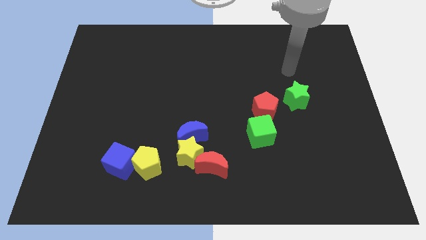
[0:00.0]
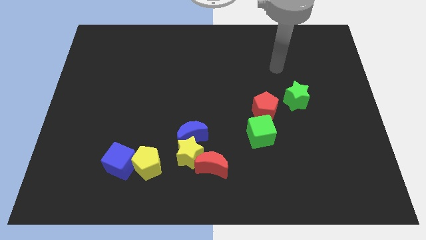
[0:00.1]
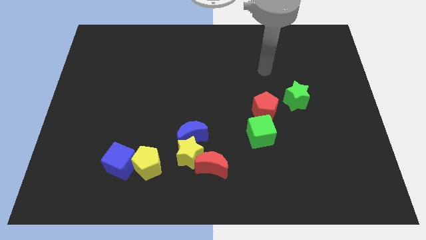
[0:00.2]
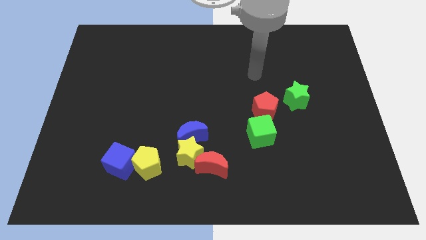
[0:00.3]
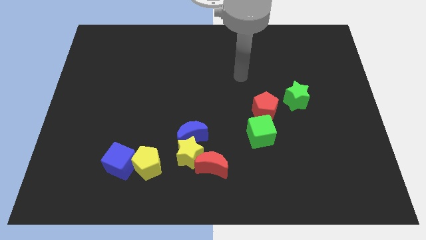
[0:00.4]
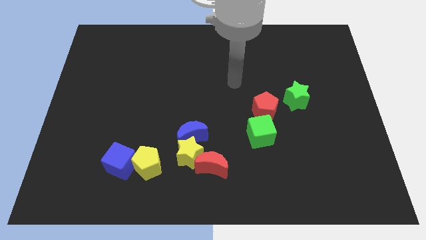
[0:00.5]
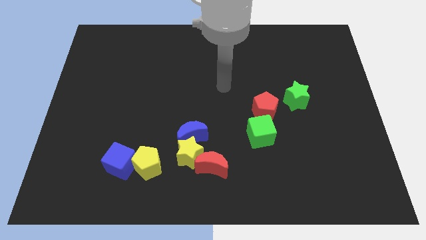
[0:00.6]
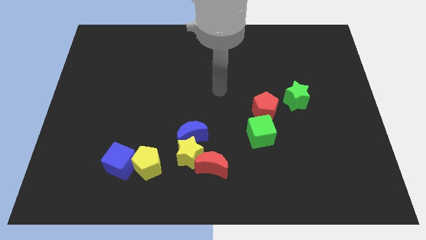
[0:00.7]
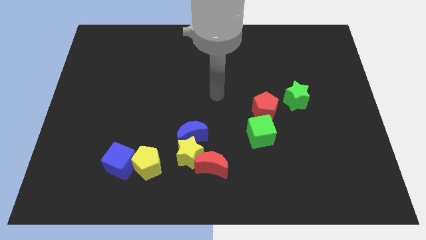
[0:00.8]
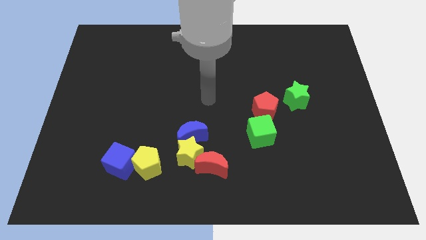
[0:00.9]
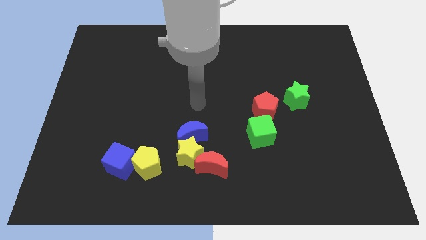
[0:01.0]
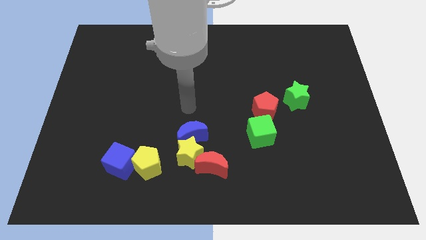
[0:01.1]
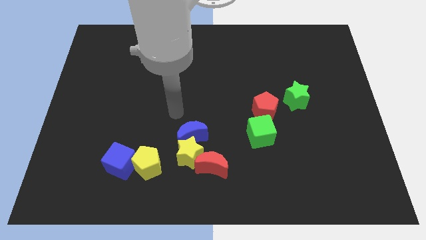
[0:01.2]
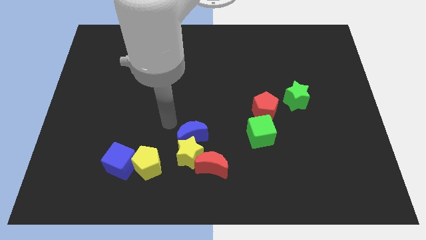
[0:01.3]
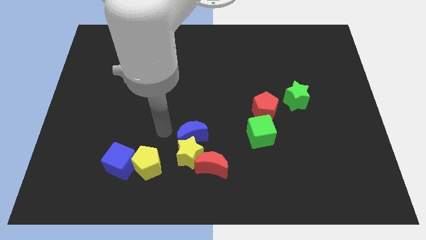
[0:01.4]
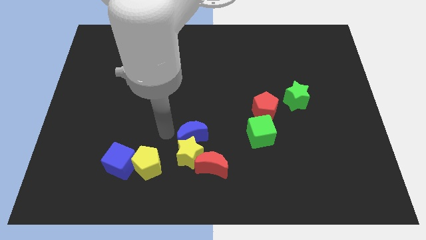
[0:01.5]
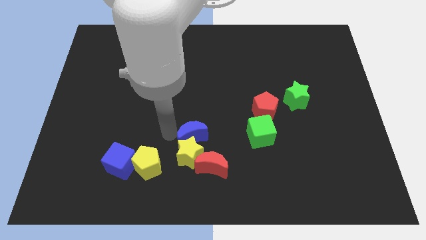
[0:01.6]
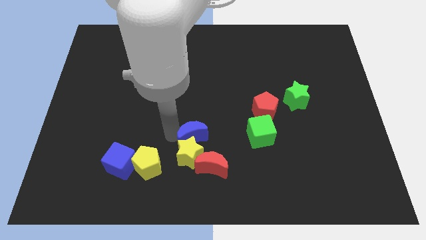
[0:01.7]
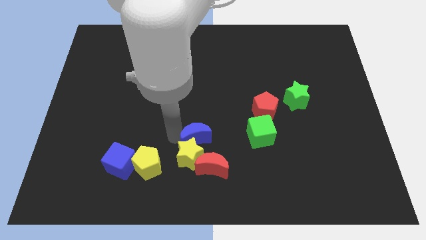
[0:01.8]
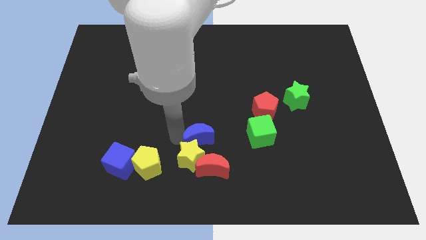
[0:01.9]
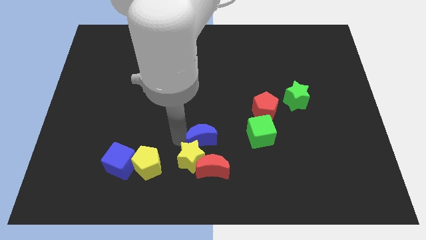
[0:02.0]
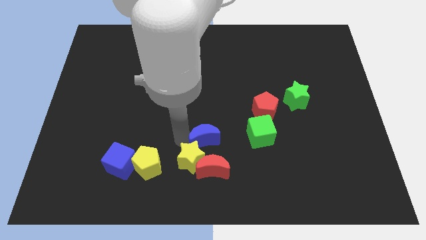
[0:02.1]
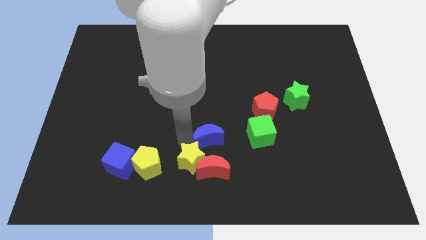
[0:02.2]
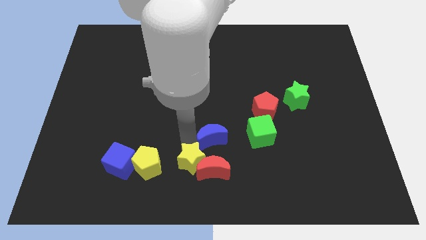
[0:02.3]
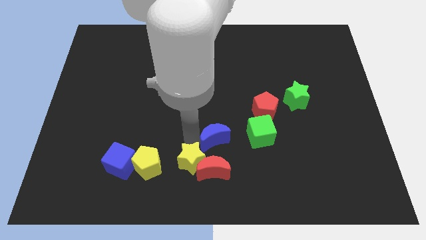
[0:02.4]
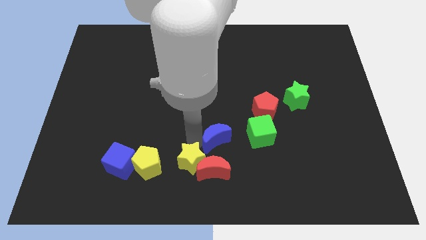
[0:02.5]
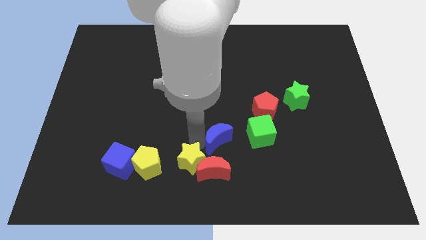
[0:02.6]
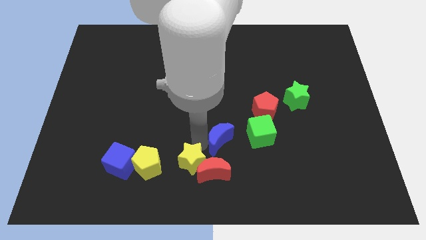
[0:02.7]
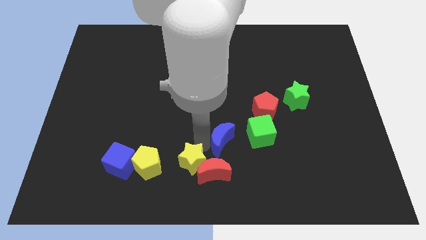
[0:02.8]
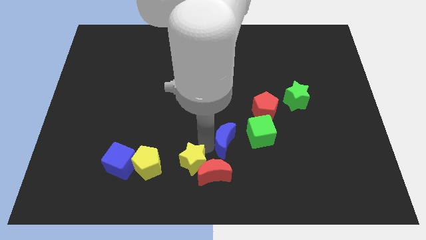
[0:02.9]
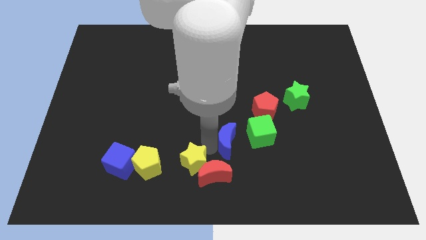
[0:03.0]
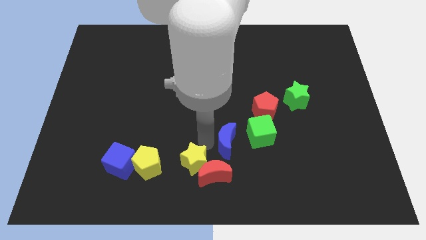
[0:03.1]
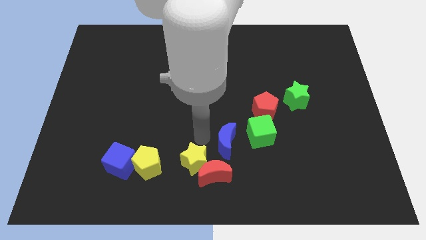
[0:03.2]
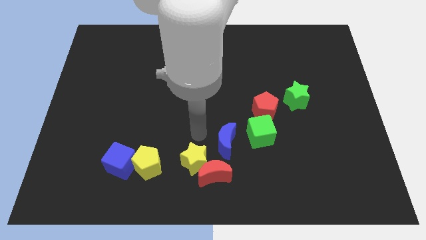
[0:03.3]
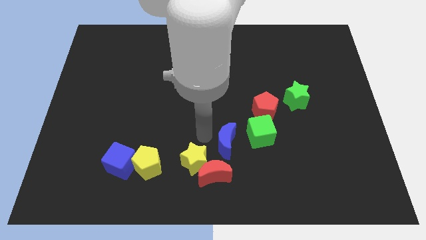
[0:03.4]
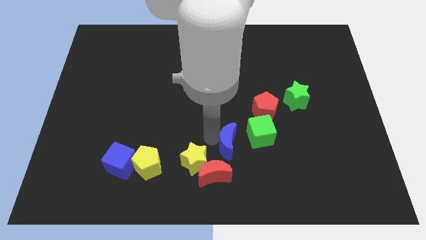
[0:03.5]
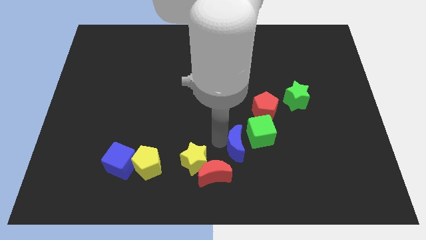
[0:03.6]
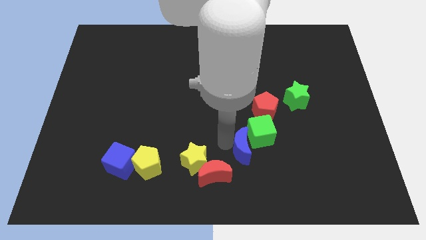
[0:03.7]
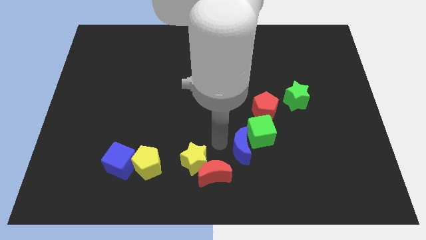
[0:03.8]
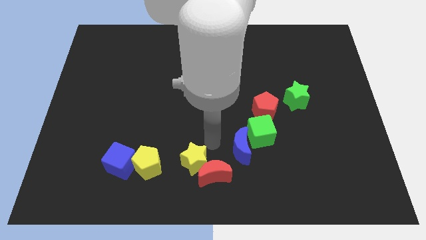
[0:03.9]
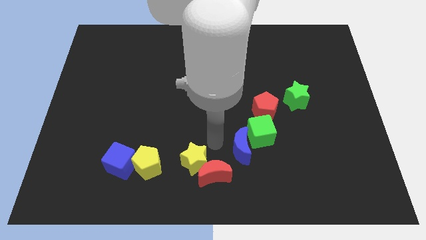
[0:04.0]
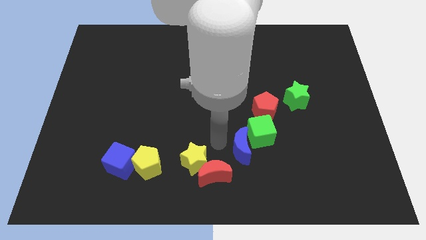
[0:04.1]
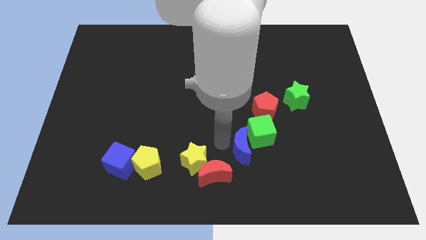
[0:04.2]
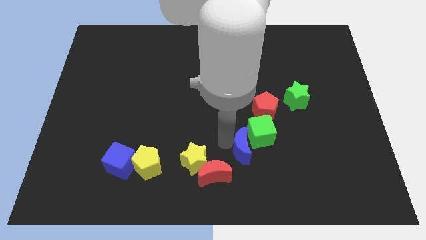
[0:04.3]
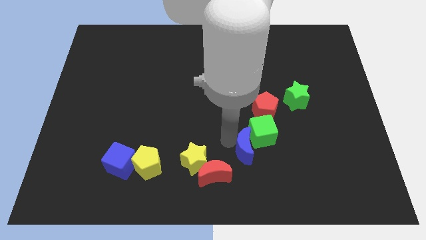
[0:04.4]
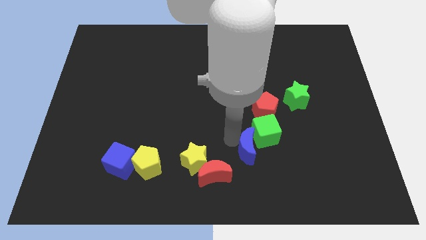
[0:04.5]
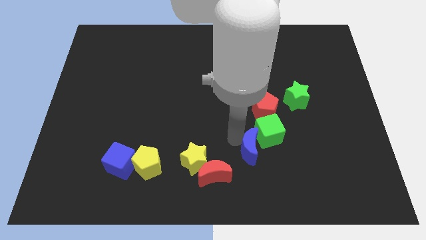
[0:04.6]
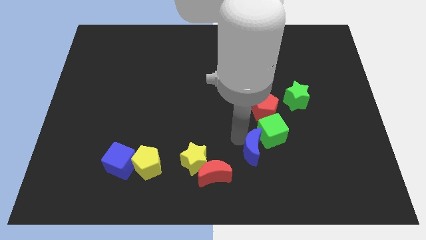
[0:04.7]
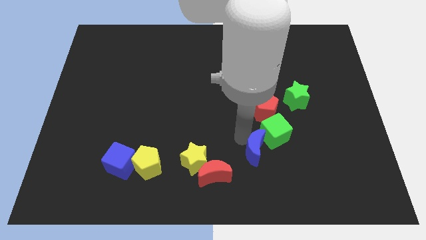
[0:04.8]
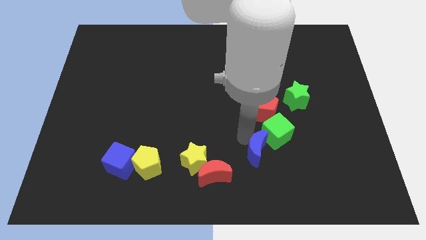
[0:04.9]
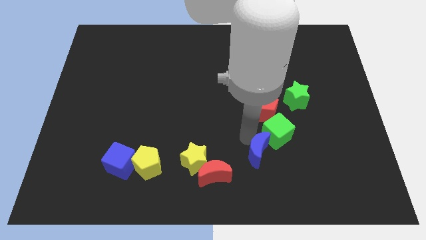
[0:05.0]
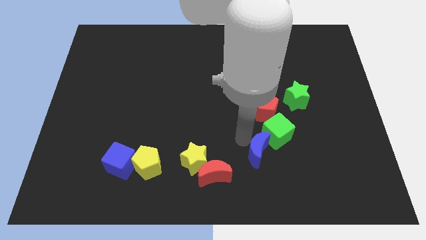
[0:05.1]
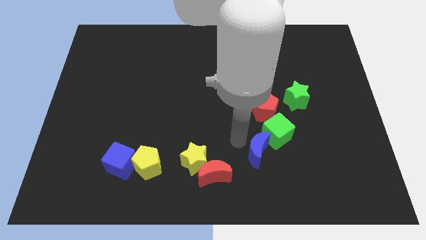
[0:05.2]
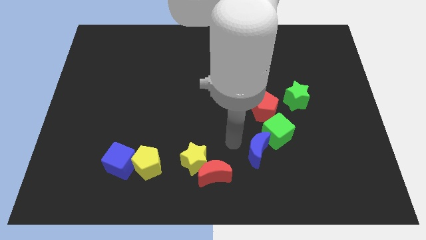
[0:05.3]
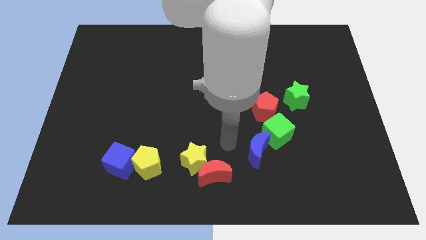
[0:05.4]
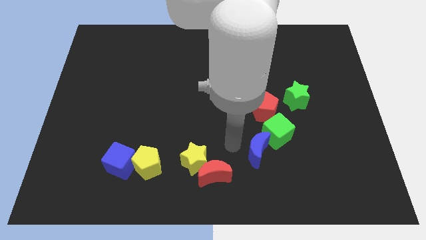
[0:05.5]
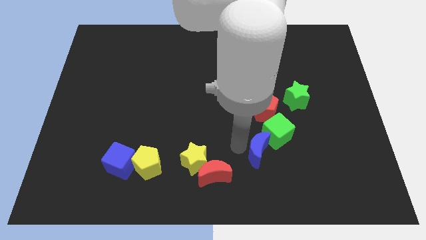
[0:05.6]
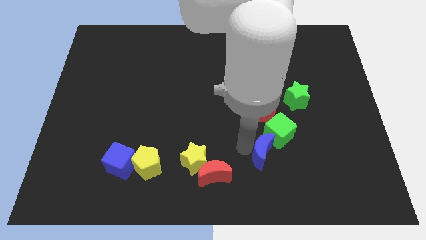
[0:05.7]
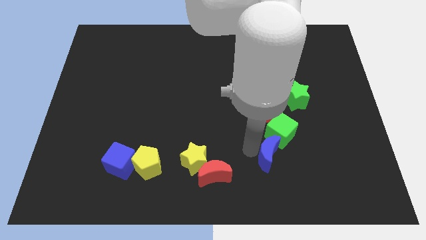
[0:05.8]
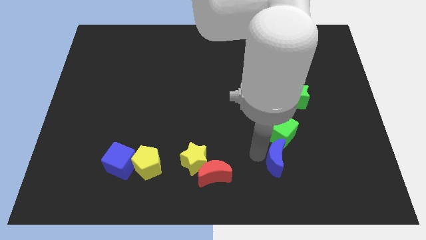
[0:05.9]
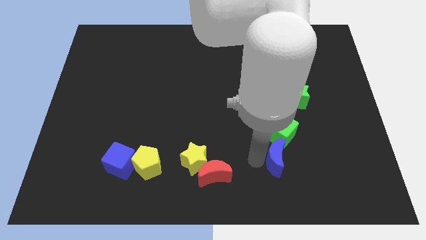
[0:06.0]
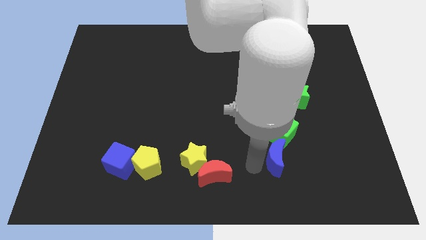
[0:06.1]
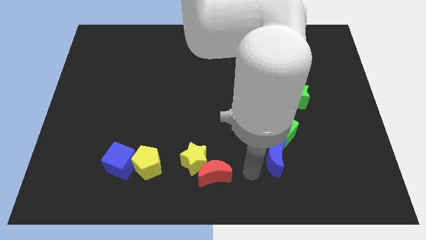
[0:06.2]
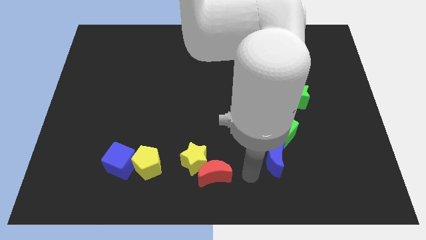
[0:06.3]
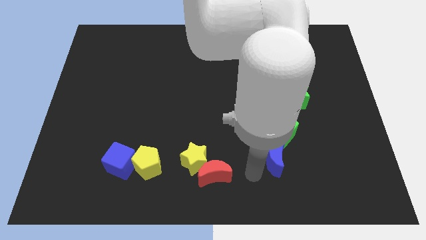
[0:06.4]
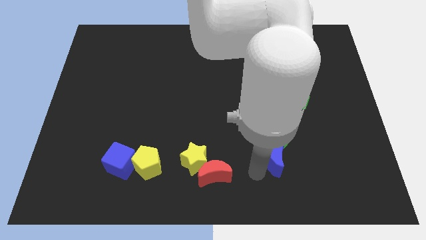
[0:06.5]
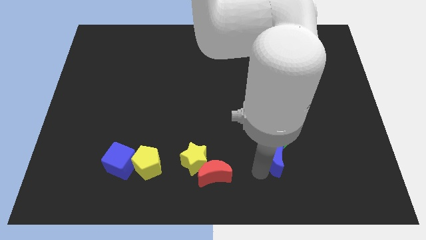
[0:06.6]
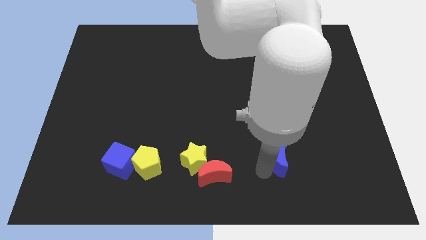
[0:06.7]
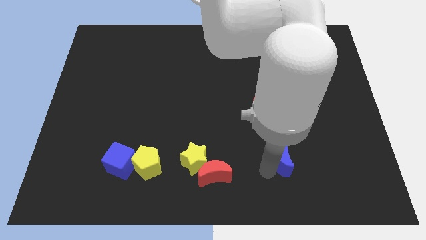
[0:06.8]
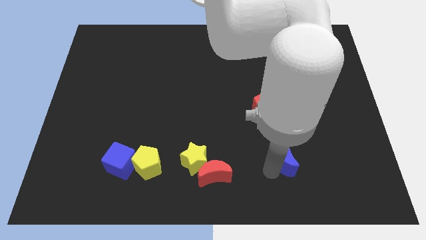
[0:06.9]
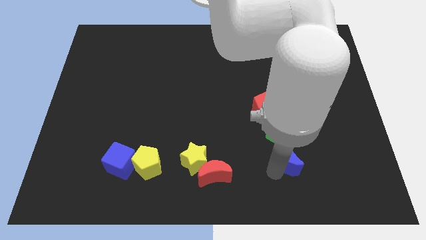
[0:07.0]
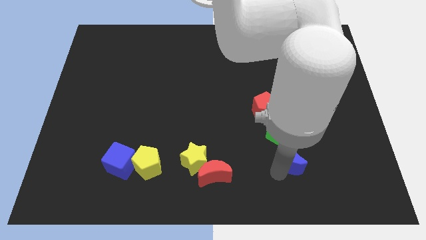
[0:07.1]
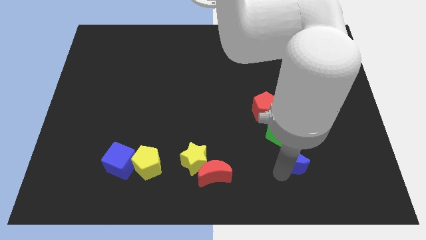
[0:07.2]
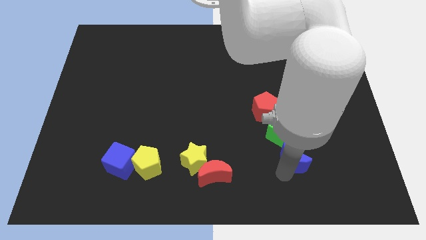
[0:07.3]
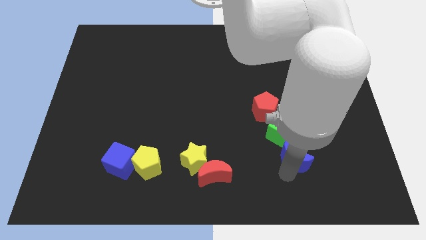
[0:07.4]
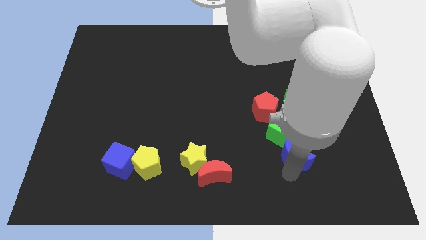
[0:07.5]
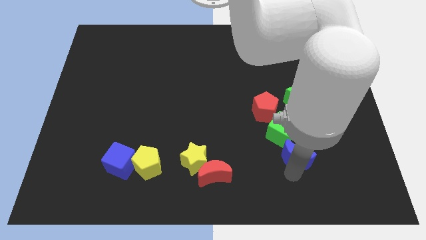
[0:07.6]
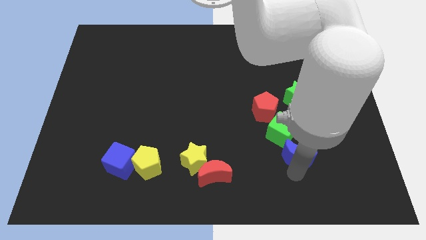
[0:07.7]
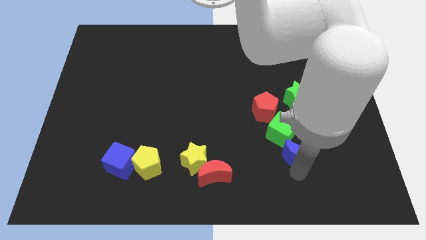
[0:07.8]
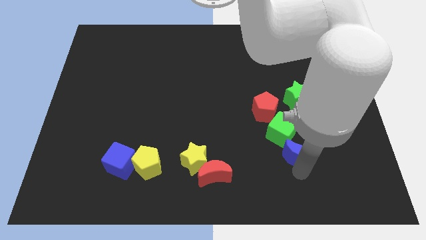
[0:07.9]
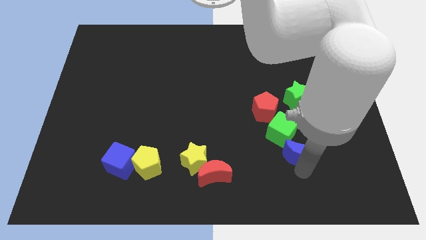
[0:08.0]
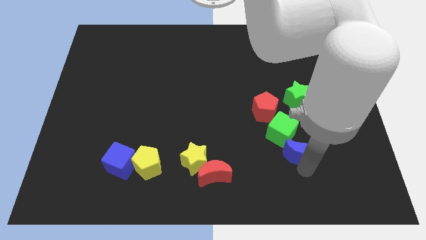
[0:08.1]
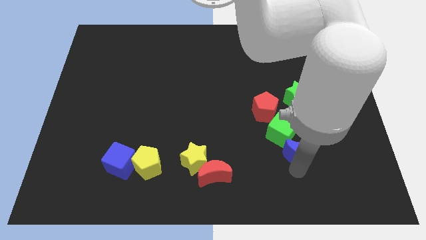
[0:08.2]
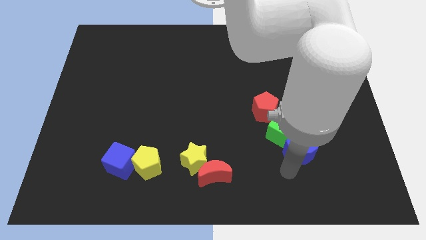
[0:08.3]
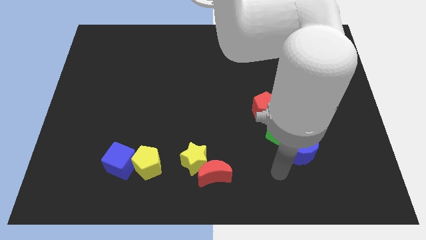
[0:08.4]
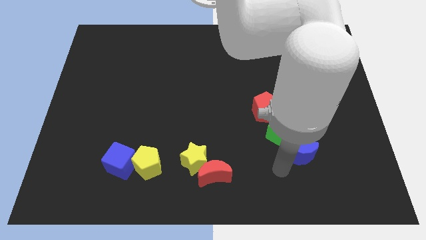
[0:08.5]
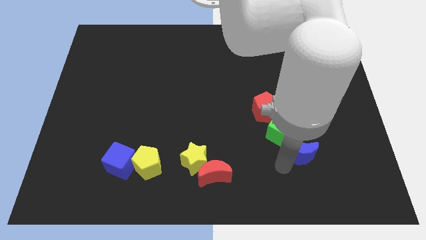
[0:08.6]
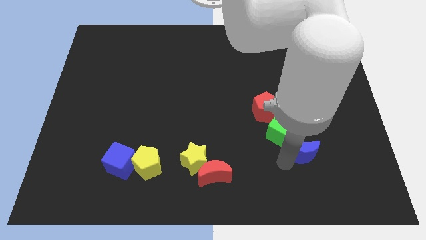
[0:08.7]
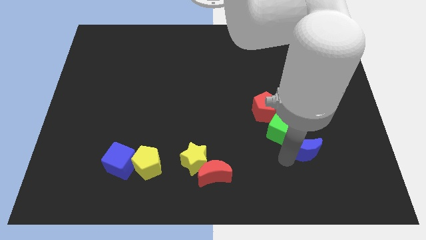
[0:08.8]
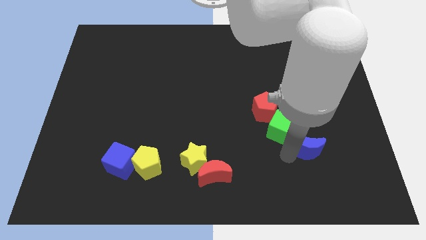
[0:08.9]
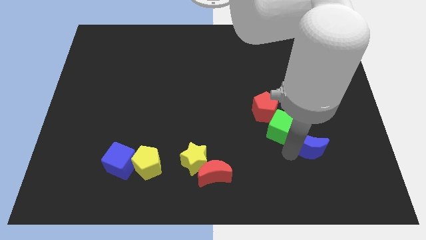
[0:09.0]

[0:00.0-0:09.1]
put the blue moon just right of the green cube
